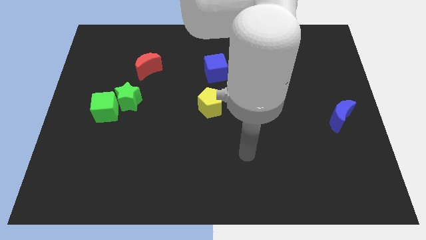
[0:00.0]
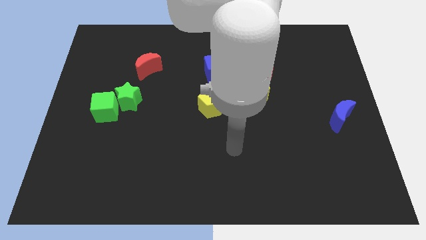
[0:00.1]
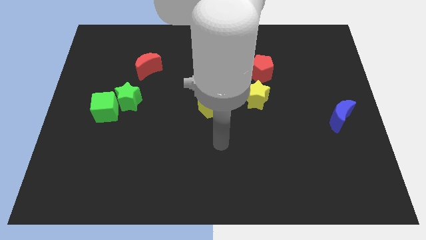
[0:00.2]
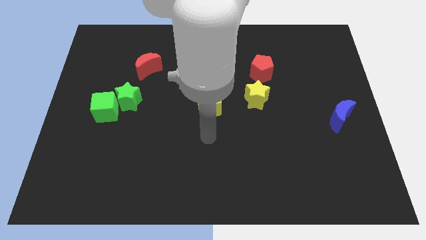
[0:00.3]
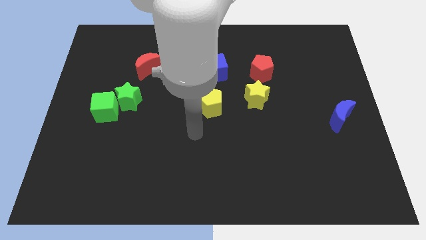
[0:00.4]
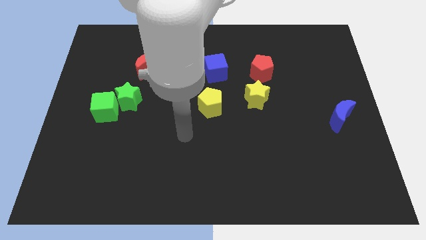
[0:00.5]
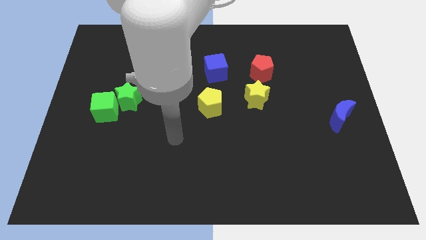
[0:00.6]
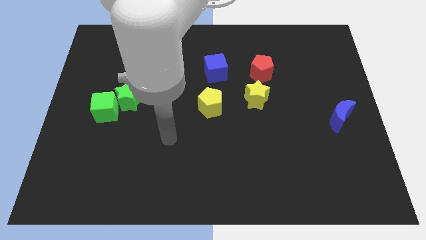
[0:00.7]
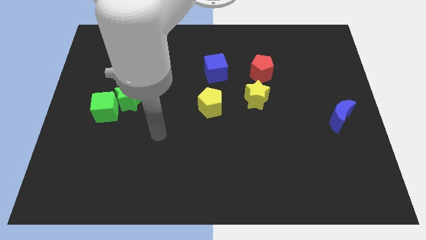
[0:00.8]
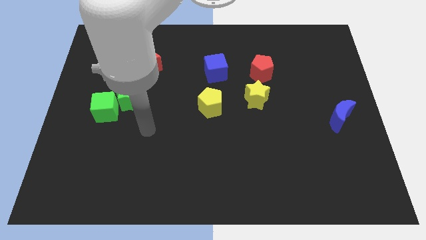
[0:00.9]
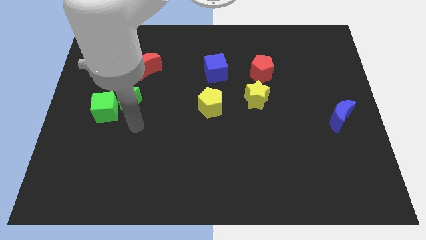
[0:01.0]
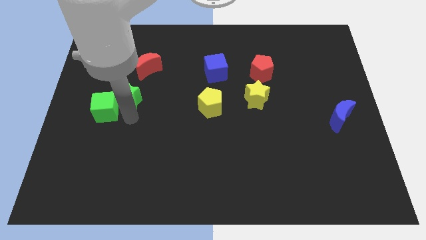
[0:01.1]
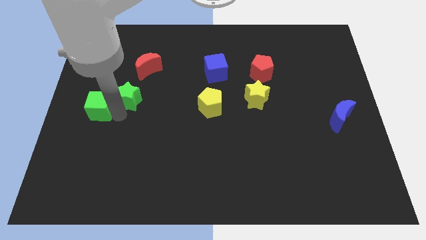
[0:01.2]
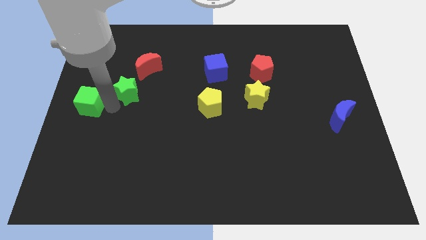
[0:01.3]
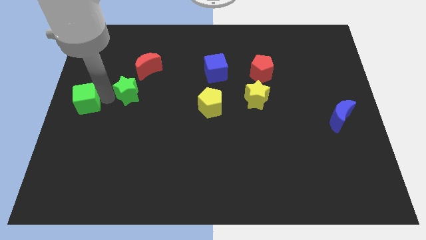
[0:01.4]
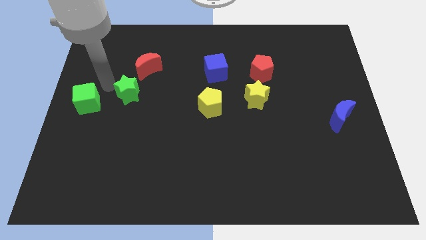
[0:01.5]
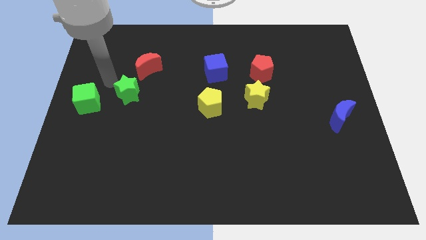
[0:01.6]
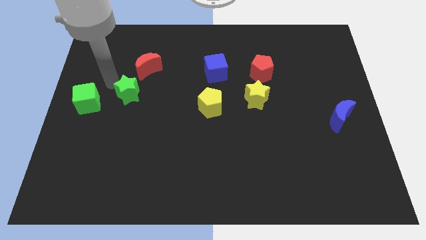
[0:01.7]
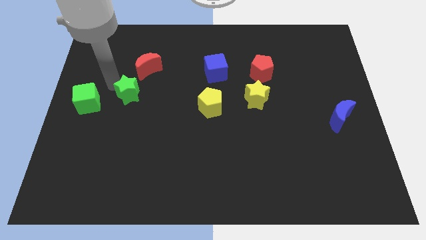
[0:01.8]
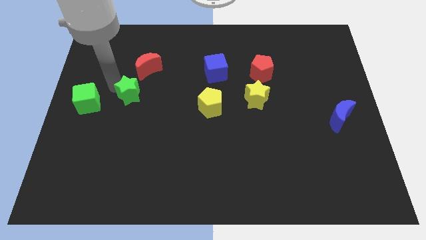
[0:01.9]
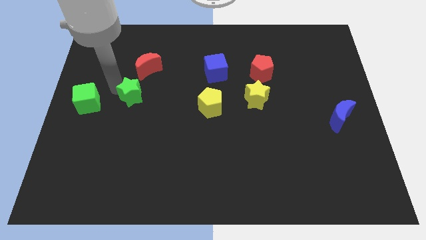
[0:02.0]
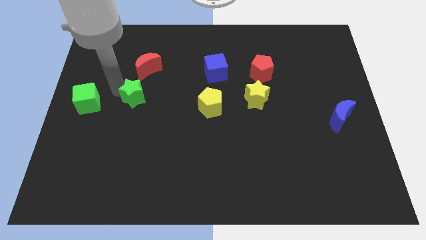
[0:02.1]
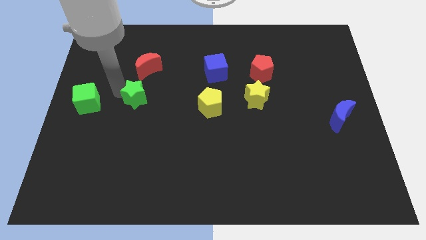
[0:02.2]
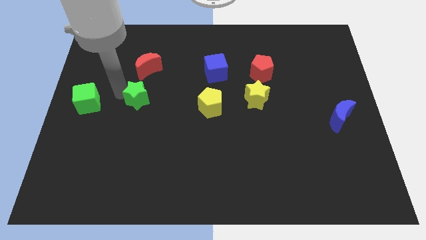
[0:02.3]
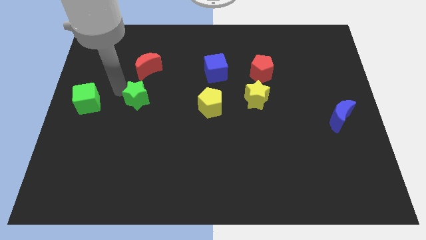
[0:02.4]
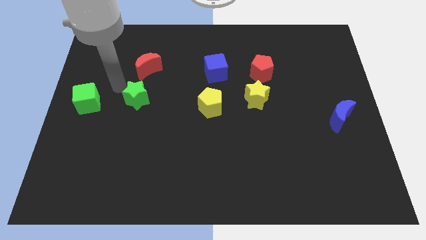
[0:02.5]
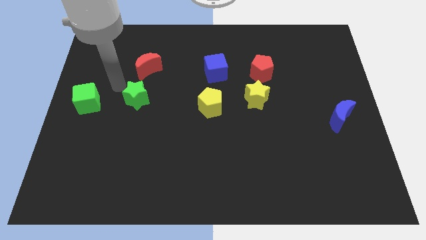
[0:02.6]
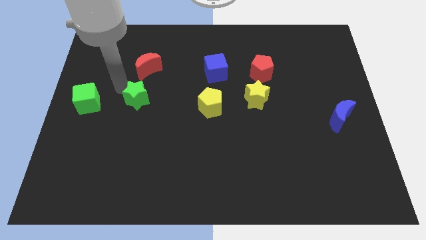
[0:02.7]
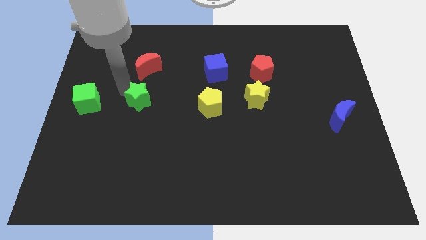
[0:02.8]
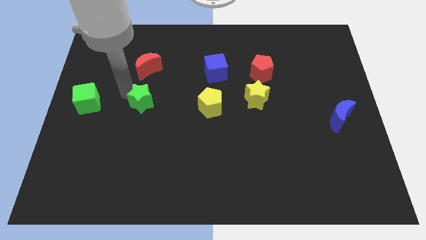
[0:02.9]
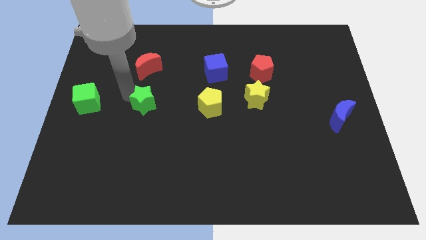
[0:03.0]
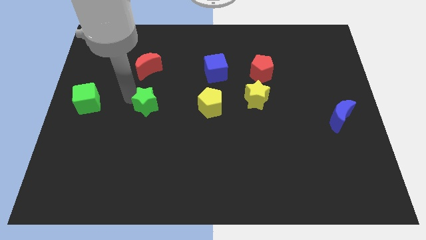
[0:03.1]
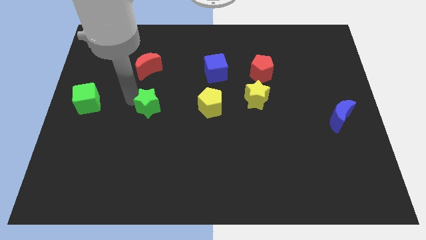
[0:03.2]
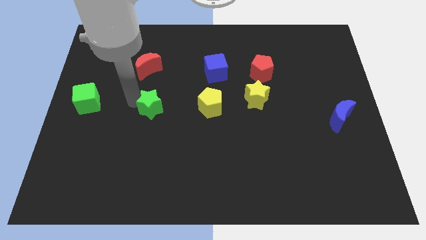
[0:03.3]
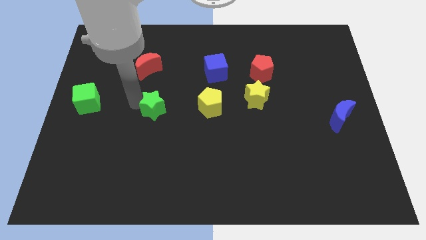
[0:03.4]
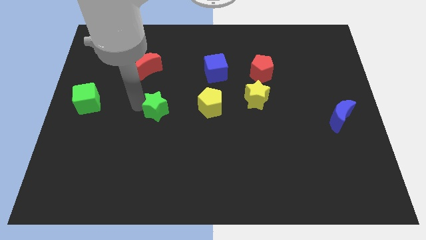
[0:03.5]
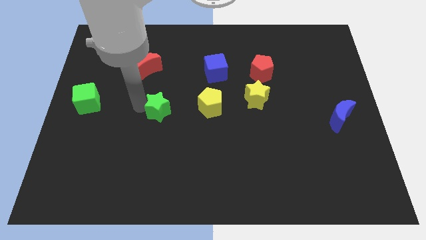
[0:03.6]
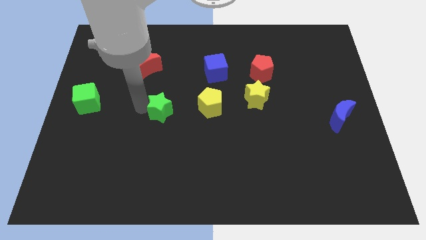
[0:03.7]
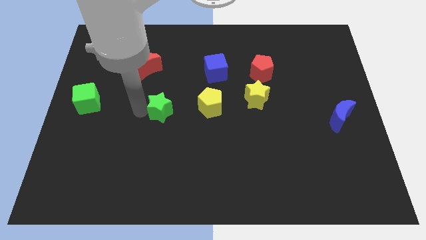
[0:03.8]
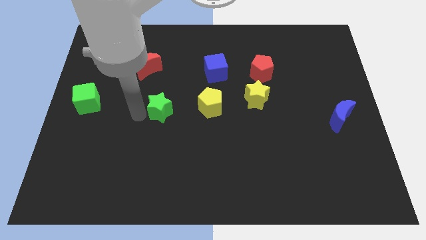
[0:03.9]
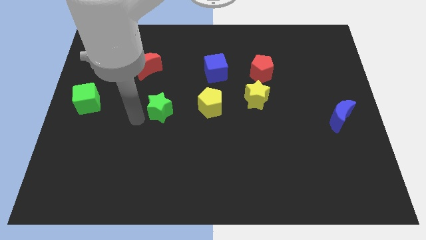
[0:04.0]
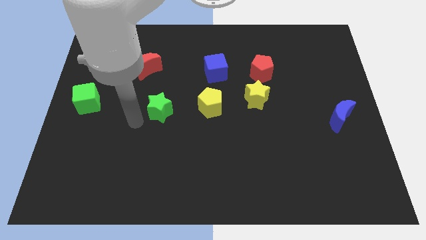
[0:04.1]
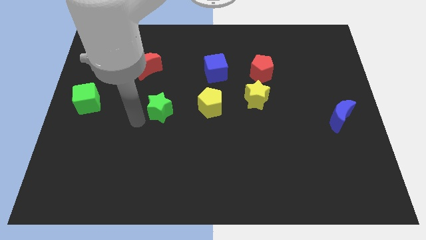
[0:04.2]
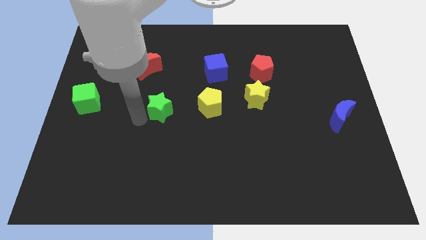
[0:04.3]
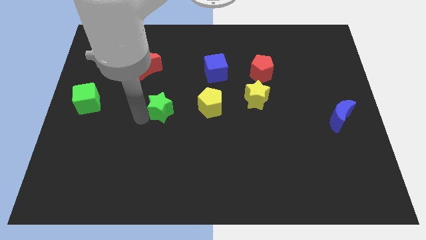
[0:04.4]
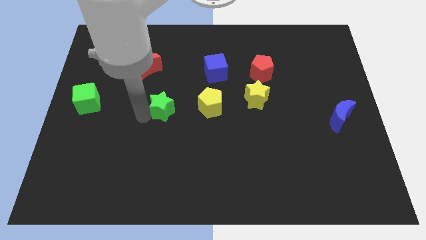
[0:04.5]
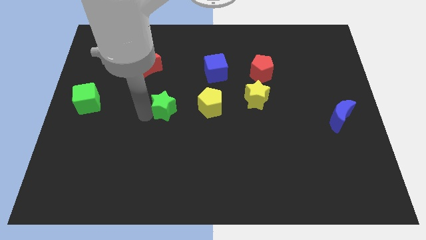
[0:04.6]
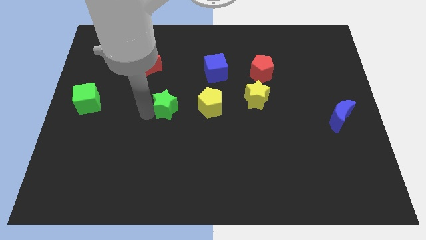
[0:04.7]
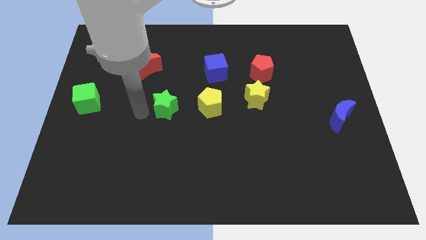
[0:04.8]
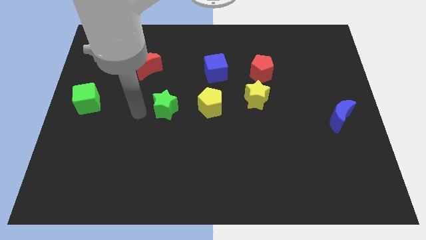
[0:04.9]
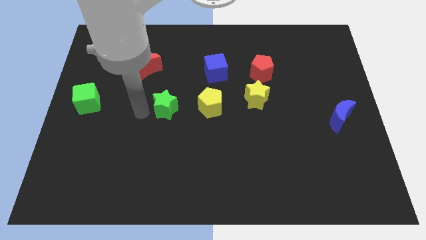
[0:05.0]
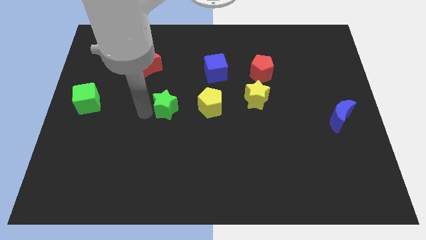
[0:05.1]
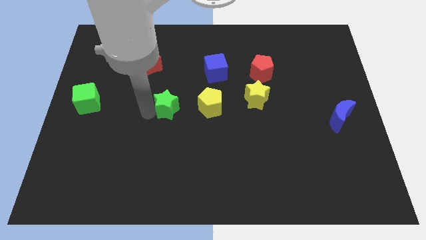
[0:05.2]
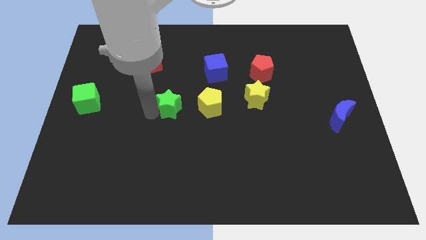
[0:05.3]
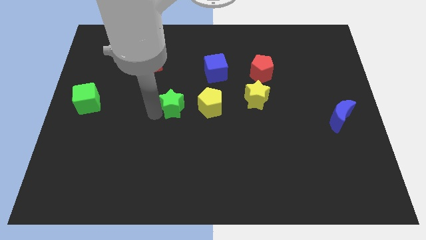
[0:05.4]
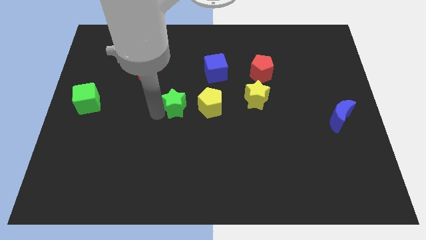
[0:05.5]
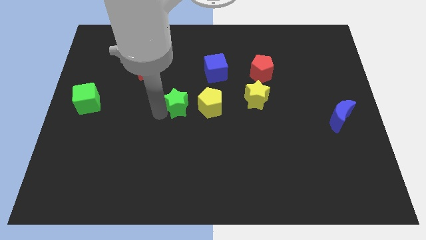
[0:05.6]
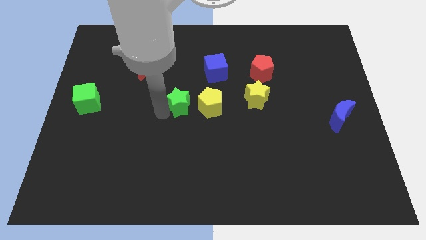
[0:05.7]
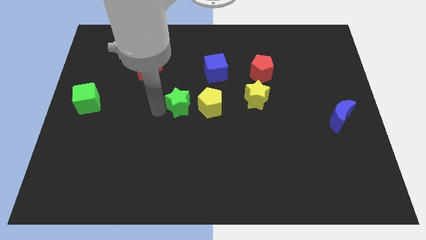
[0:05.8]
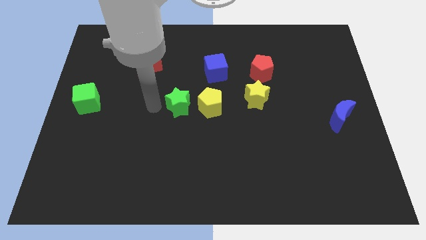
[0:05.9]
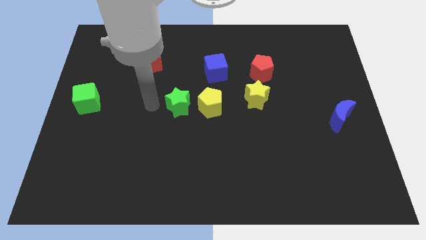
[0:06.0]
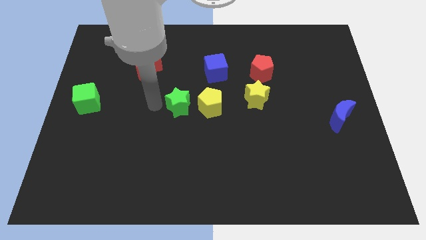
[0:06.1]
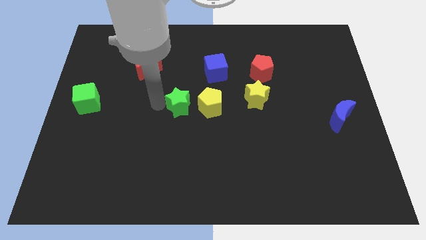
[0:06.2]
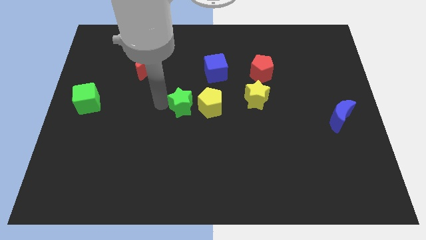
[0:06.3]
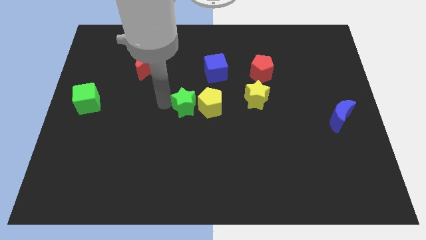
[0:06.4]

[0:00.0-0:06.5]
put the green star towards the yellow pentagon

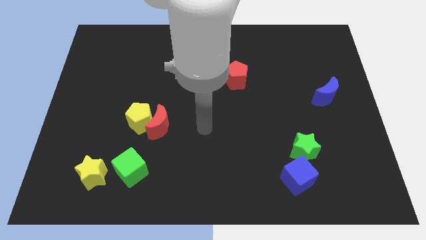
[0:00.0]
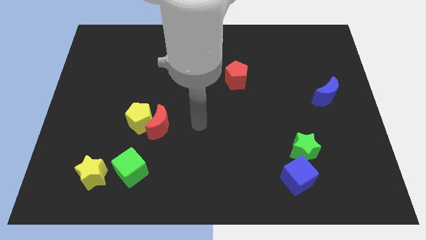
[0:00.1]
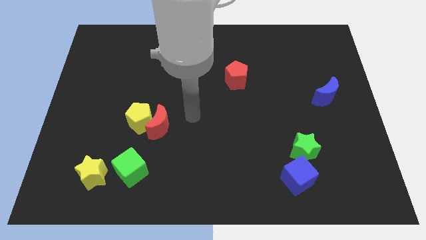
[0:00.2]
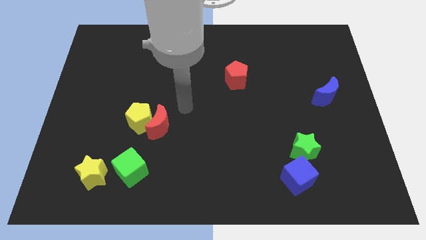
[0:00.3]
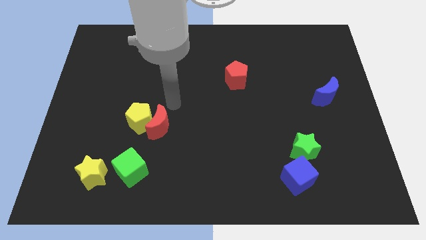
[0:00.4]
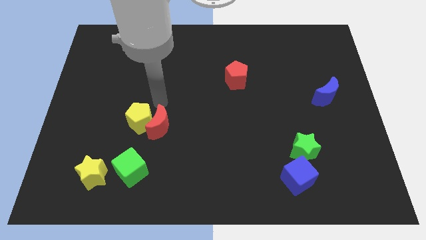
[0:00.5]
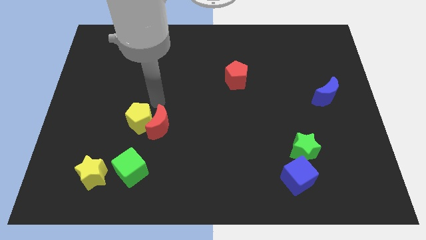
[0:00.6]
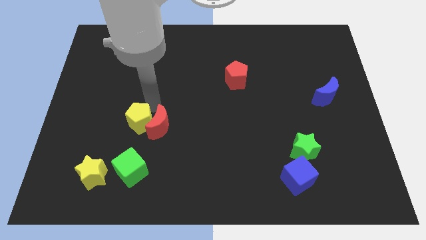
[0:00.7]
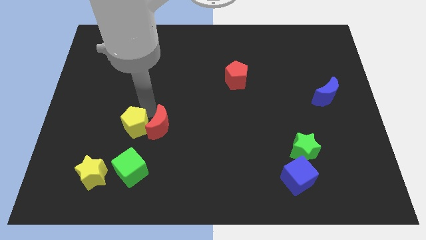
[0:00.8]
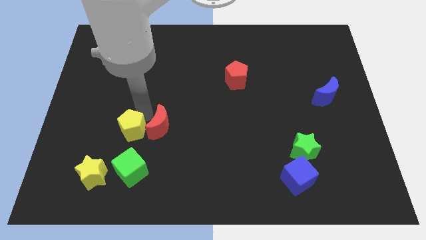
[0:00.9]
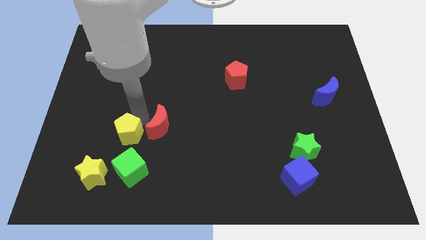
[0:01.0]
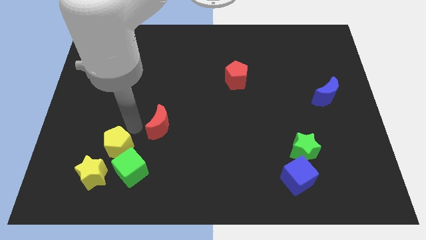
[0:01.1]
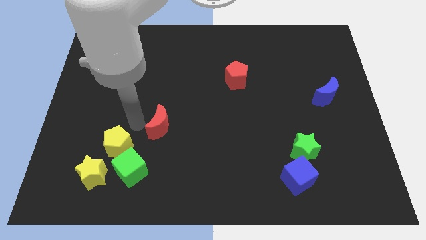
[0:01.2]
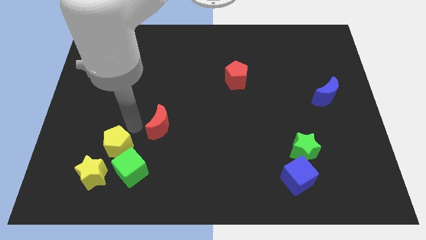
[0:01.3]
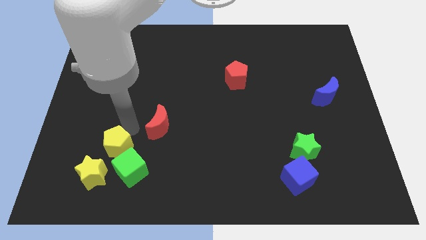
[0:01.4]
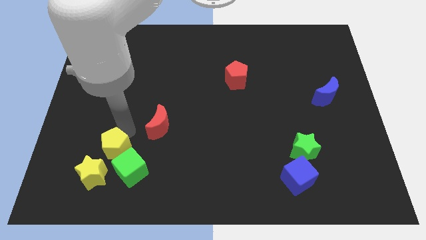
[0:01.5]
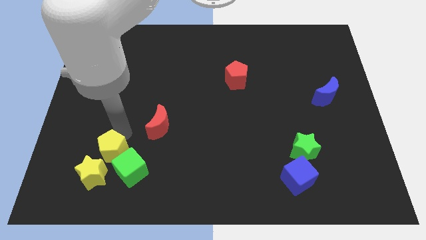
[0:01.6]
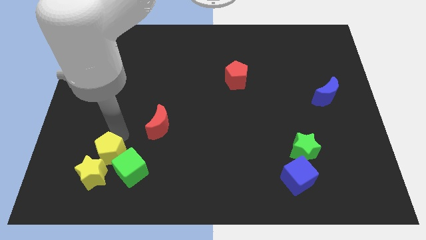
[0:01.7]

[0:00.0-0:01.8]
slide the yellow pentagon to the yellow star
